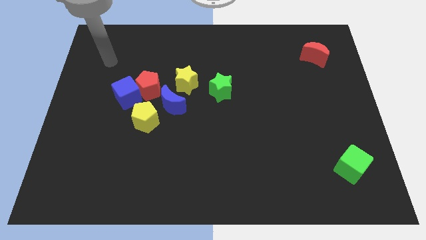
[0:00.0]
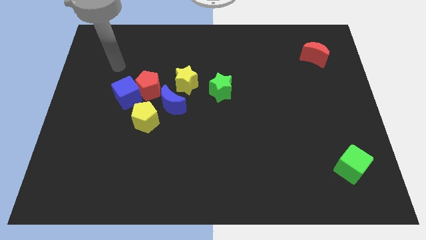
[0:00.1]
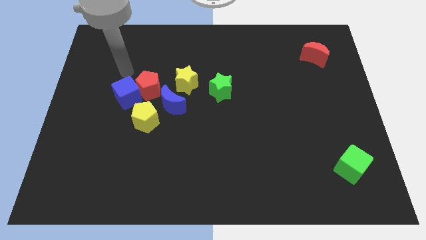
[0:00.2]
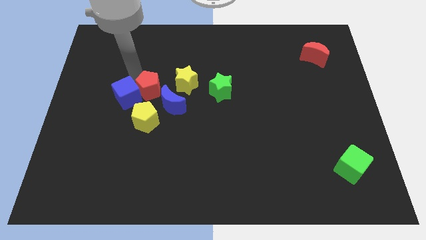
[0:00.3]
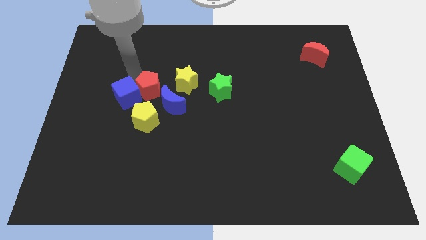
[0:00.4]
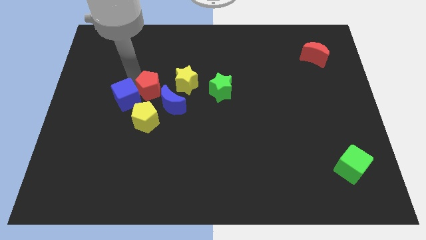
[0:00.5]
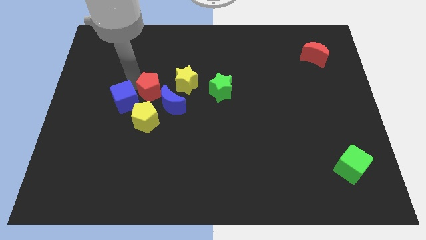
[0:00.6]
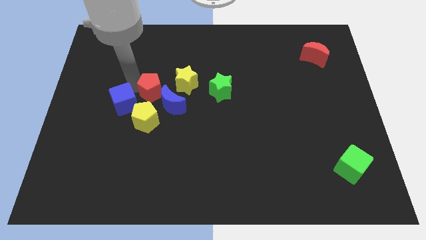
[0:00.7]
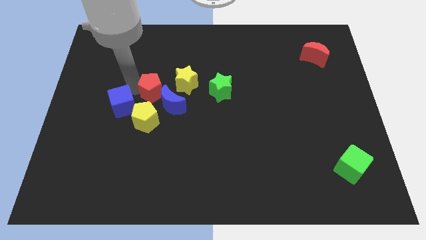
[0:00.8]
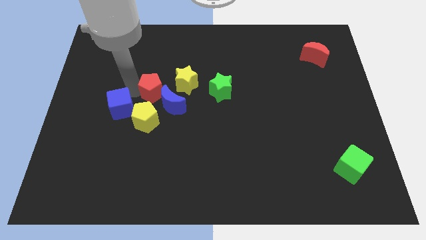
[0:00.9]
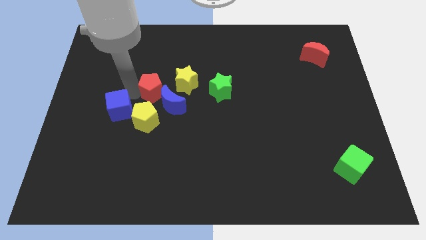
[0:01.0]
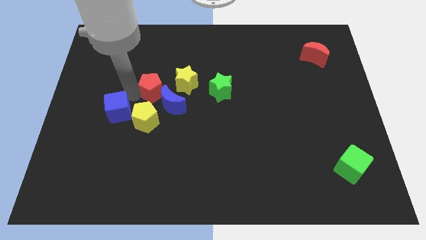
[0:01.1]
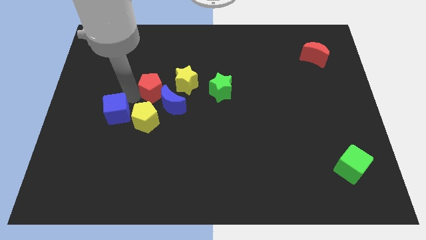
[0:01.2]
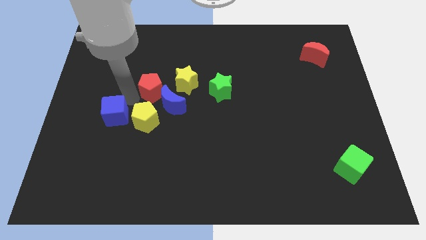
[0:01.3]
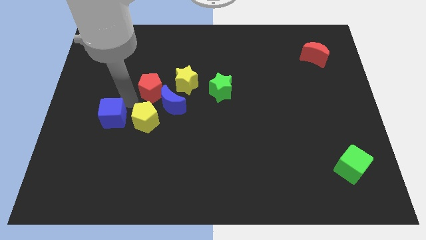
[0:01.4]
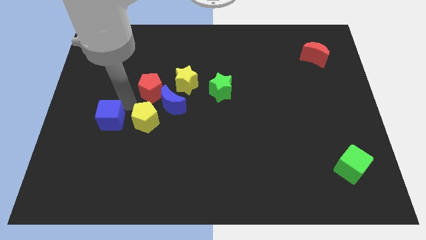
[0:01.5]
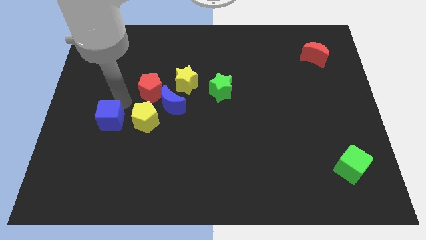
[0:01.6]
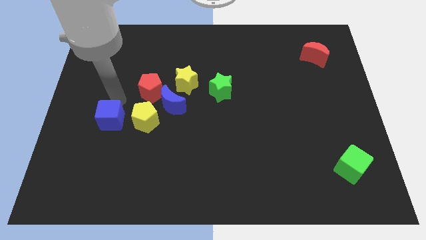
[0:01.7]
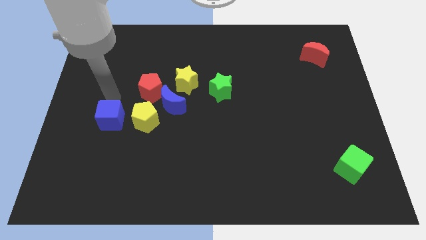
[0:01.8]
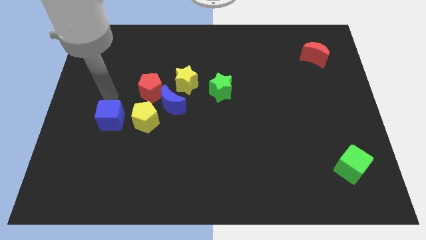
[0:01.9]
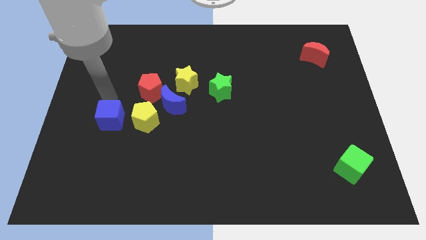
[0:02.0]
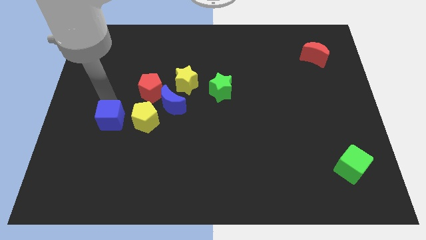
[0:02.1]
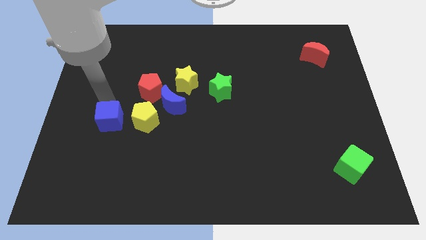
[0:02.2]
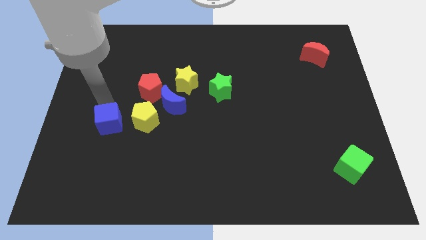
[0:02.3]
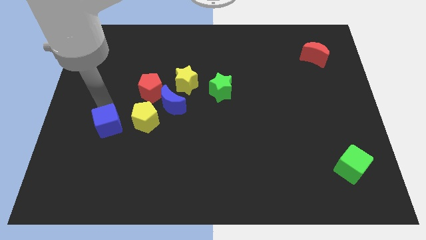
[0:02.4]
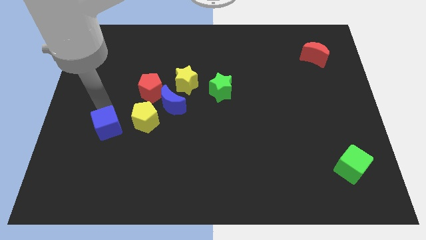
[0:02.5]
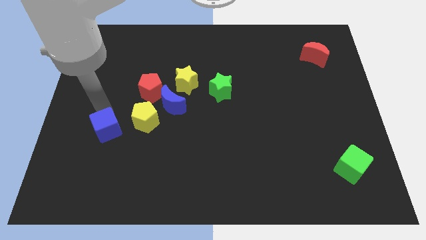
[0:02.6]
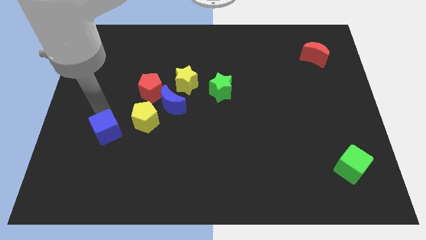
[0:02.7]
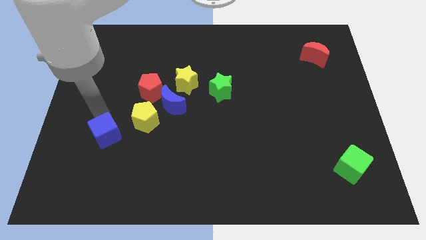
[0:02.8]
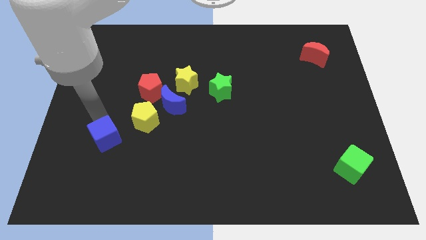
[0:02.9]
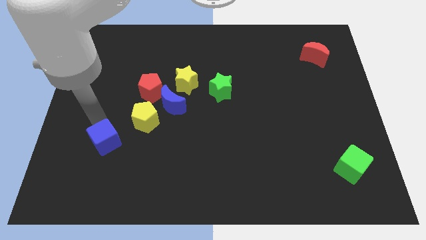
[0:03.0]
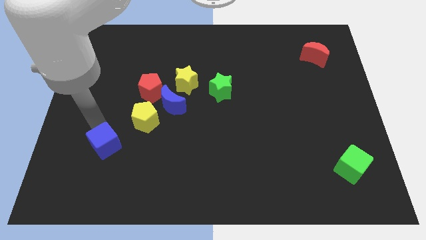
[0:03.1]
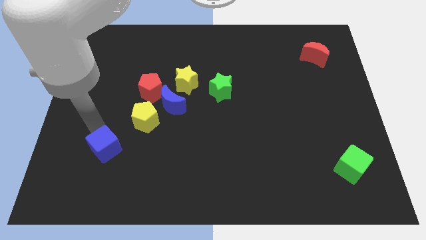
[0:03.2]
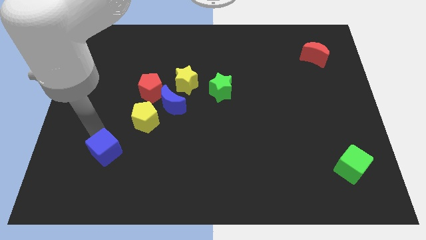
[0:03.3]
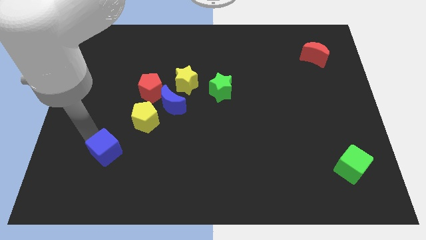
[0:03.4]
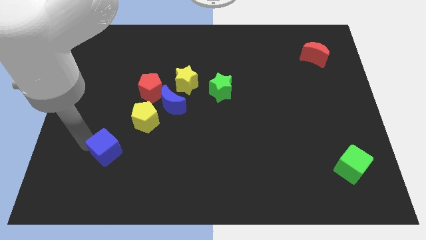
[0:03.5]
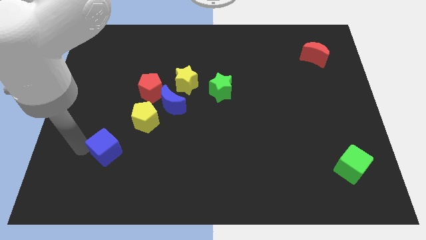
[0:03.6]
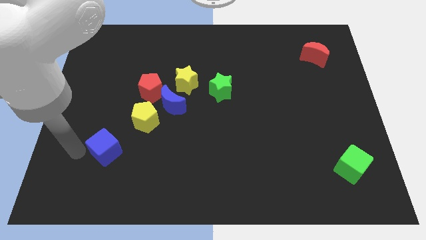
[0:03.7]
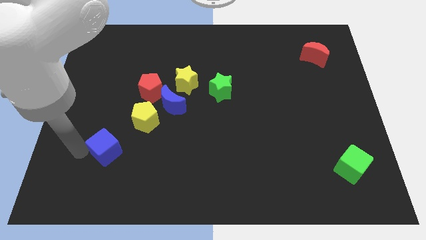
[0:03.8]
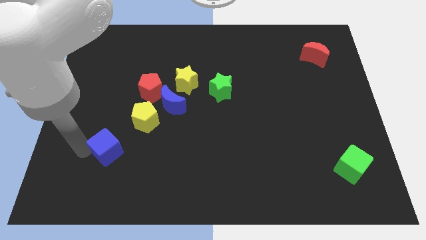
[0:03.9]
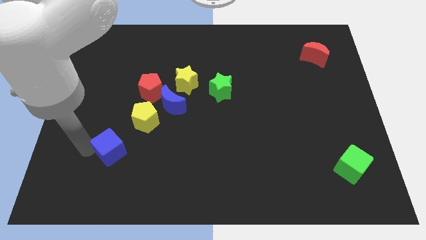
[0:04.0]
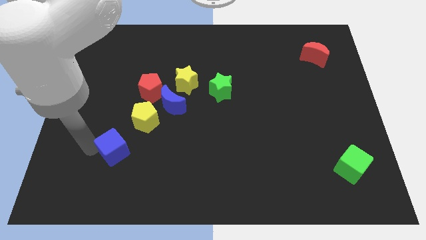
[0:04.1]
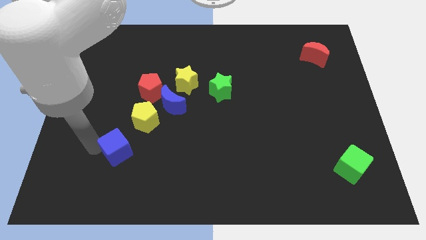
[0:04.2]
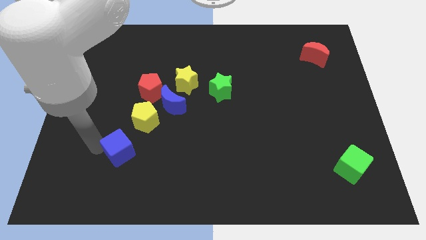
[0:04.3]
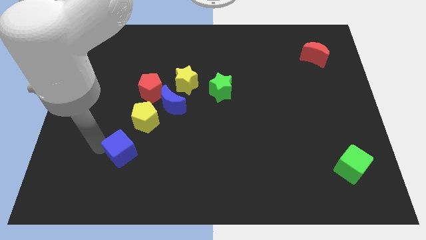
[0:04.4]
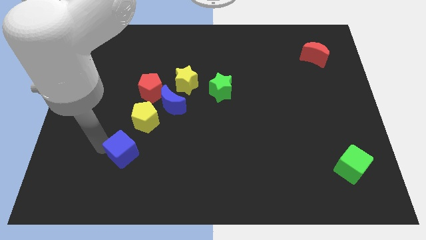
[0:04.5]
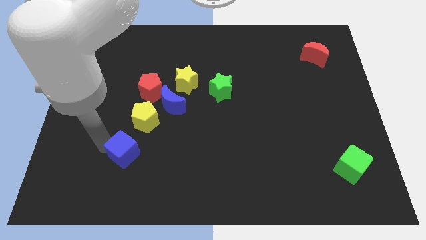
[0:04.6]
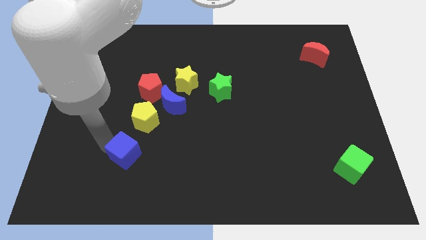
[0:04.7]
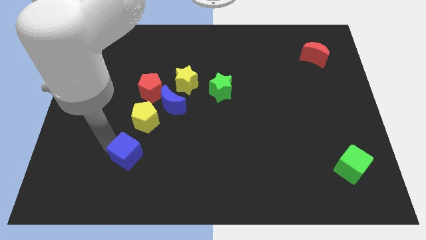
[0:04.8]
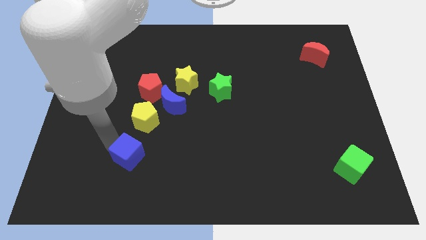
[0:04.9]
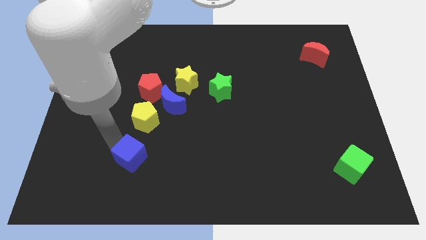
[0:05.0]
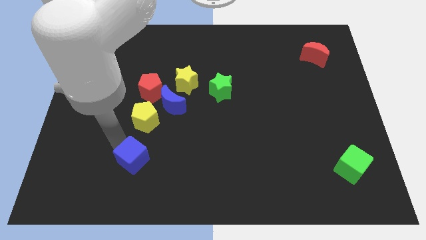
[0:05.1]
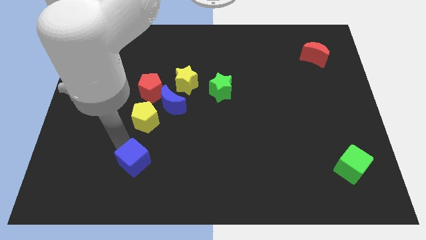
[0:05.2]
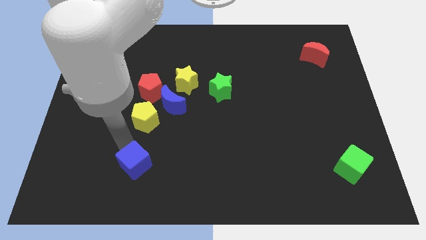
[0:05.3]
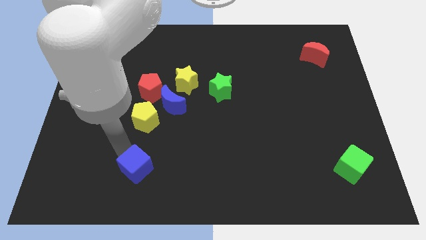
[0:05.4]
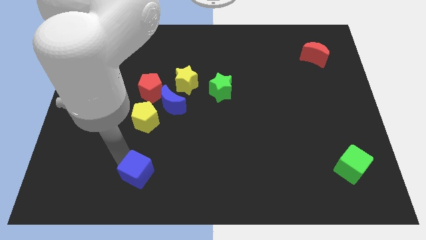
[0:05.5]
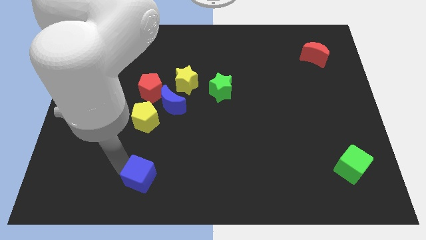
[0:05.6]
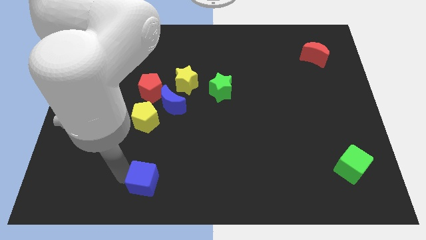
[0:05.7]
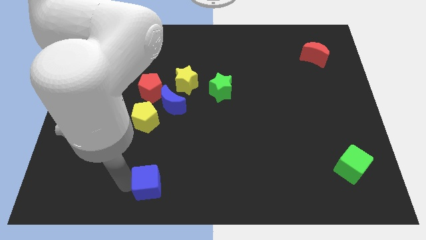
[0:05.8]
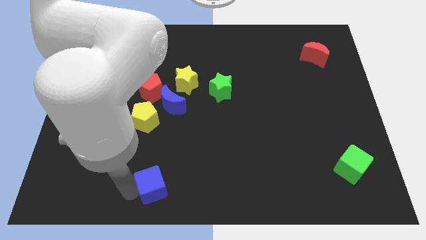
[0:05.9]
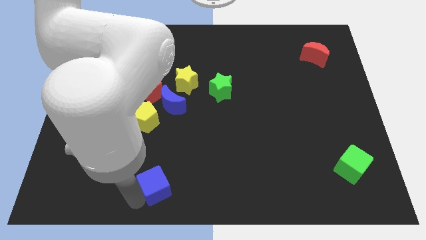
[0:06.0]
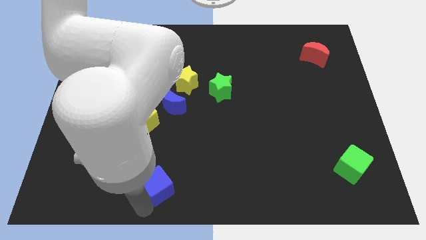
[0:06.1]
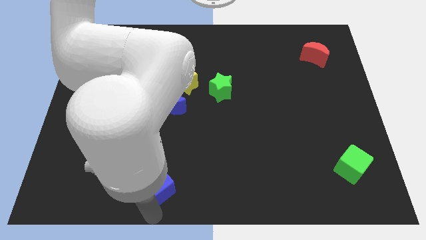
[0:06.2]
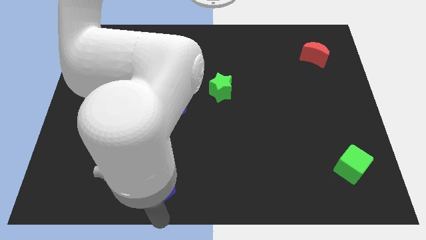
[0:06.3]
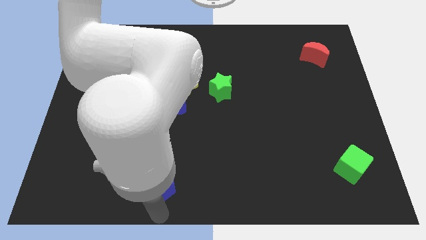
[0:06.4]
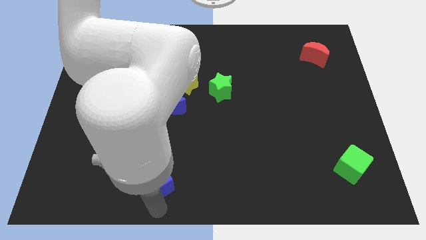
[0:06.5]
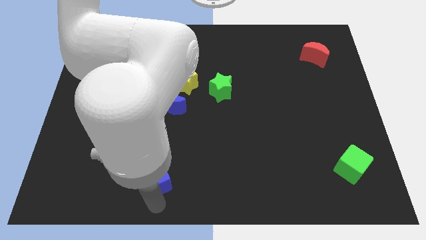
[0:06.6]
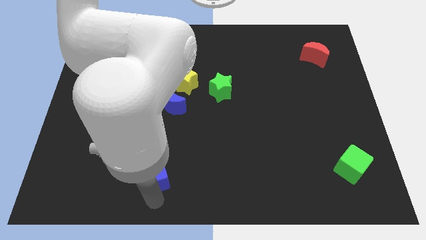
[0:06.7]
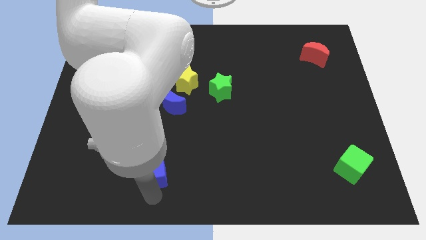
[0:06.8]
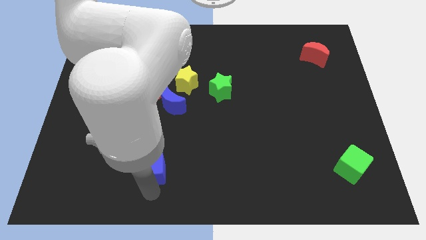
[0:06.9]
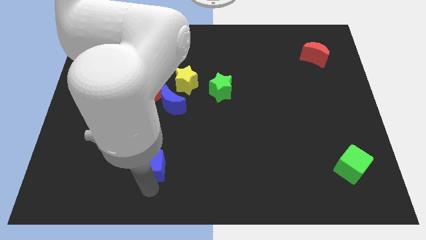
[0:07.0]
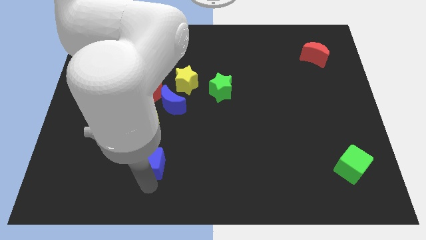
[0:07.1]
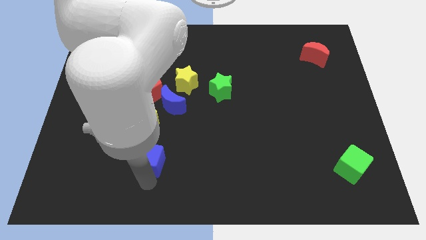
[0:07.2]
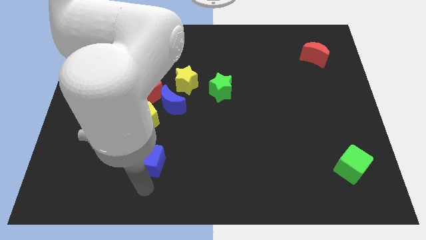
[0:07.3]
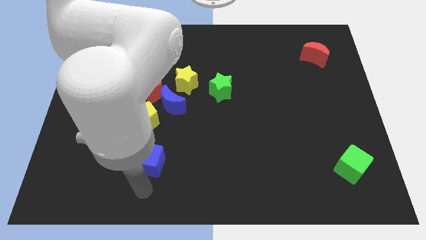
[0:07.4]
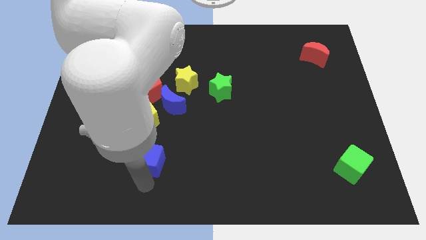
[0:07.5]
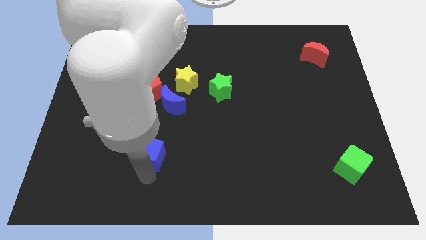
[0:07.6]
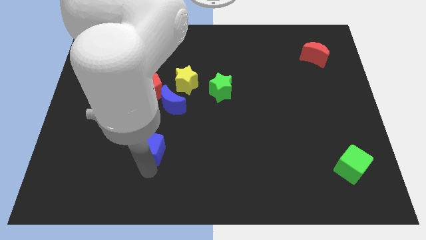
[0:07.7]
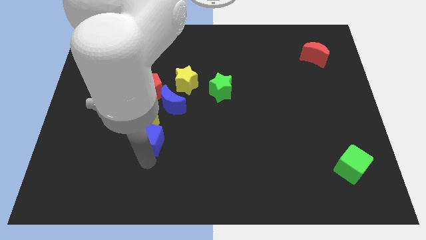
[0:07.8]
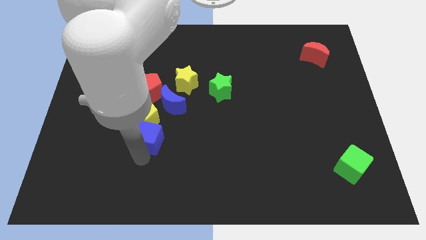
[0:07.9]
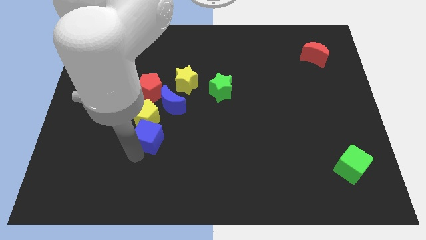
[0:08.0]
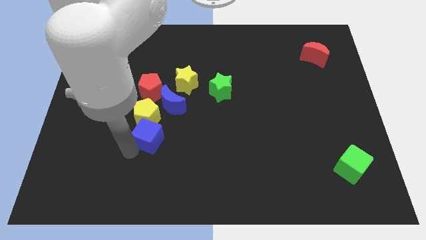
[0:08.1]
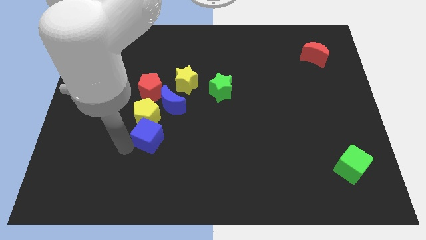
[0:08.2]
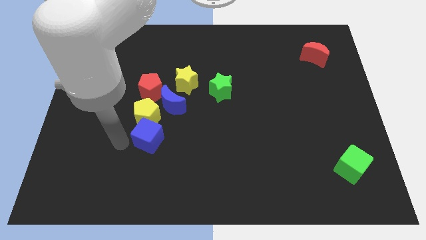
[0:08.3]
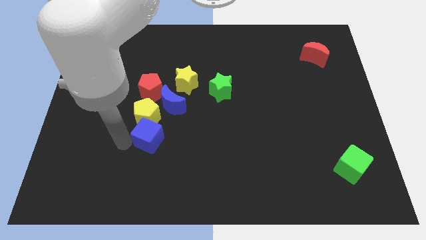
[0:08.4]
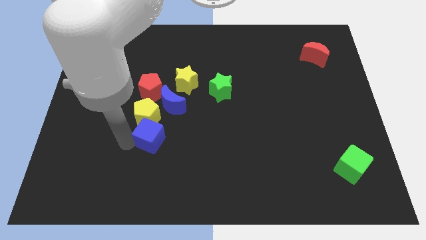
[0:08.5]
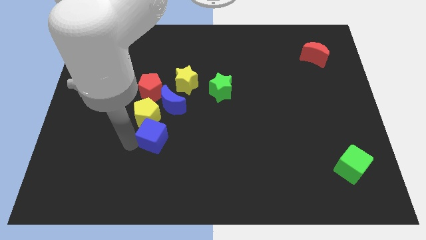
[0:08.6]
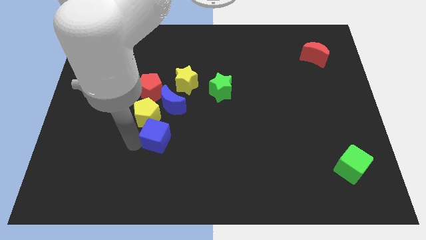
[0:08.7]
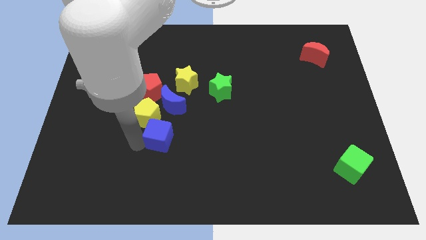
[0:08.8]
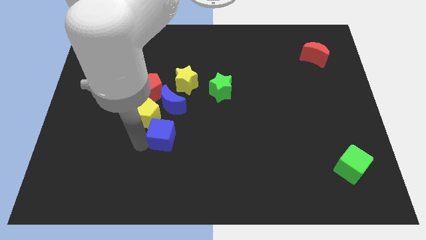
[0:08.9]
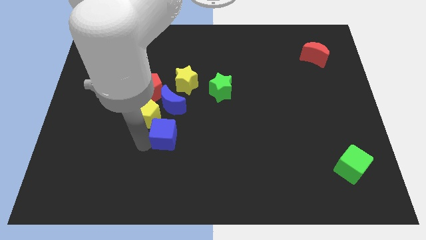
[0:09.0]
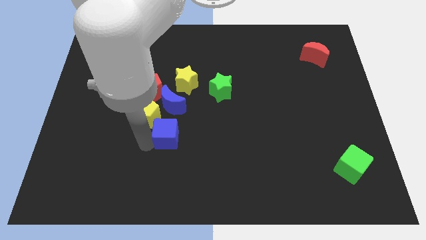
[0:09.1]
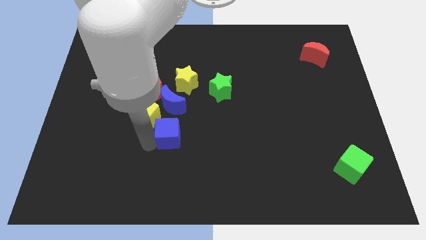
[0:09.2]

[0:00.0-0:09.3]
slide the blue cube below the yellow star
